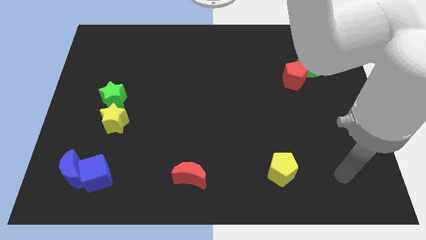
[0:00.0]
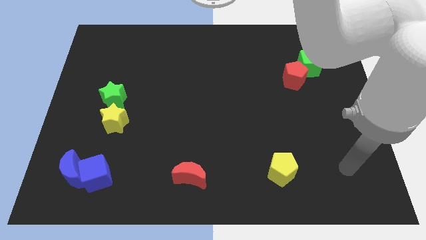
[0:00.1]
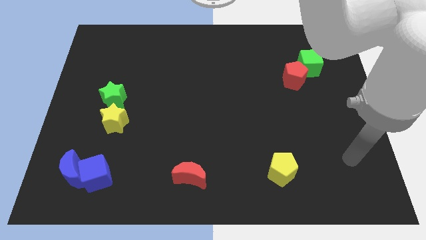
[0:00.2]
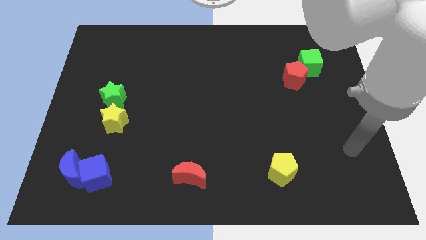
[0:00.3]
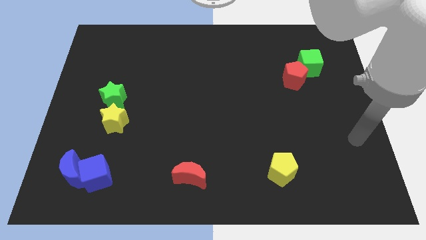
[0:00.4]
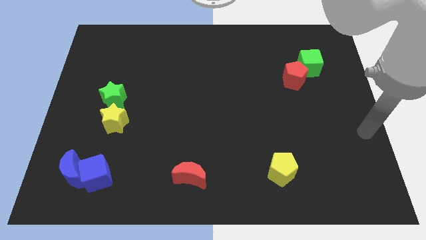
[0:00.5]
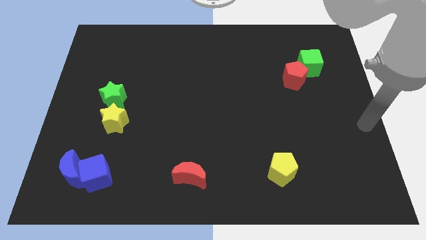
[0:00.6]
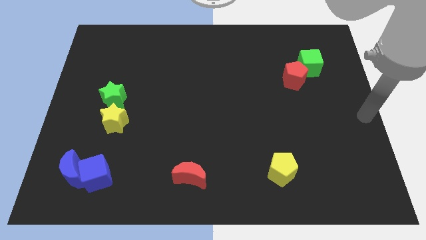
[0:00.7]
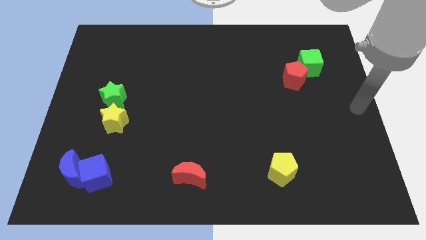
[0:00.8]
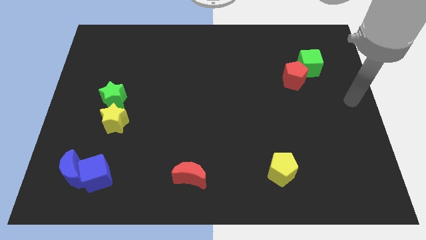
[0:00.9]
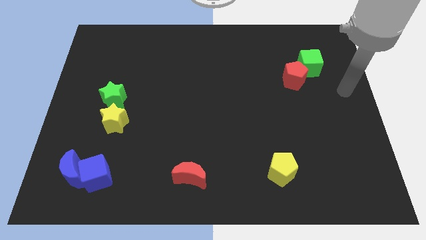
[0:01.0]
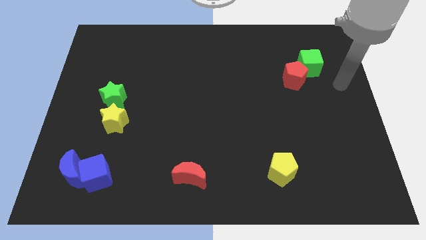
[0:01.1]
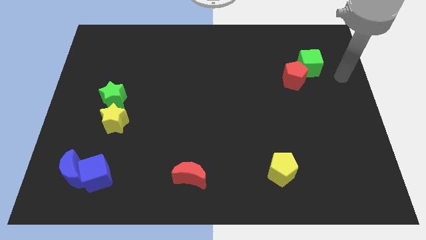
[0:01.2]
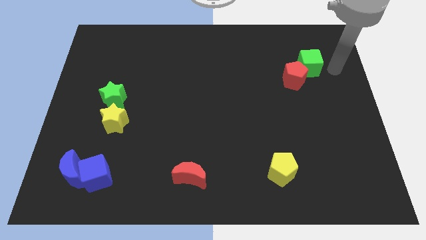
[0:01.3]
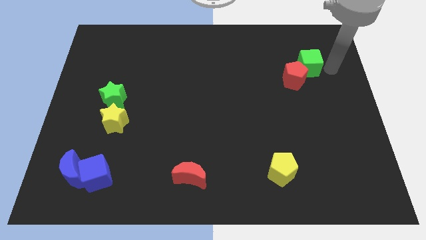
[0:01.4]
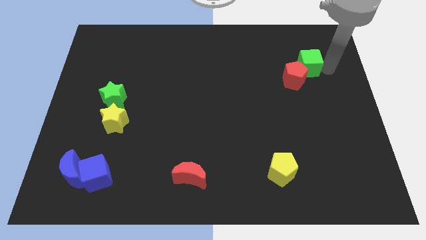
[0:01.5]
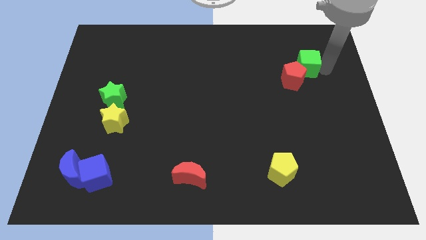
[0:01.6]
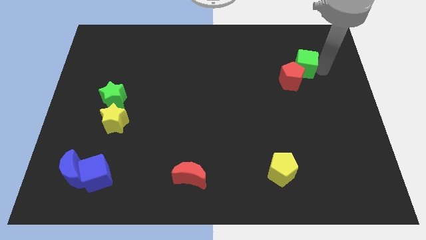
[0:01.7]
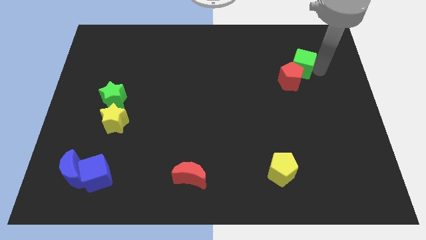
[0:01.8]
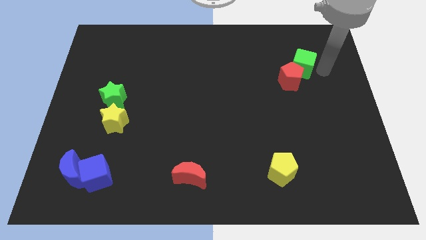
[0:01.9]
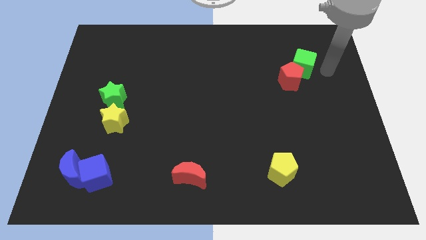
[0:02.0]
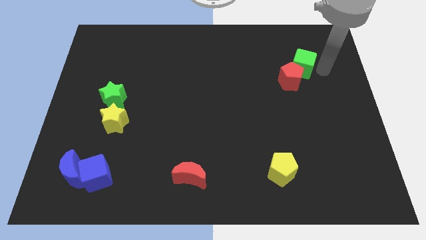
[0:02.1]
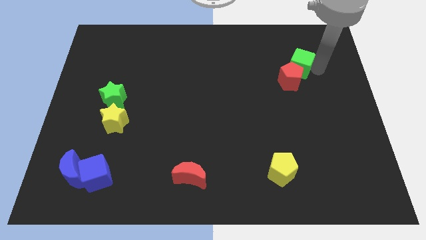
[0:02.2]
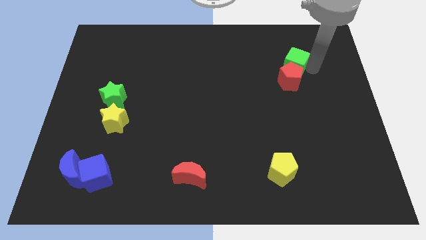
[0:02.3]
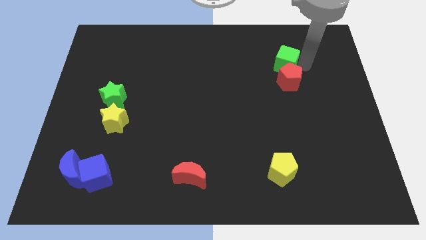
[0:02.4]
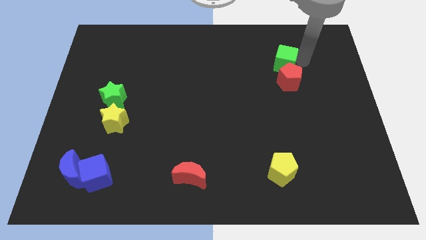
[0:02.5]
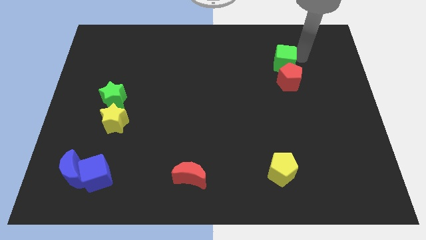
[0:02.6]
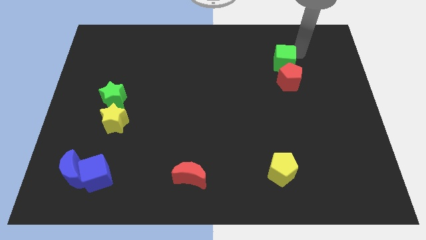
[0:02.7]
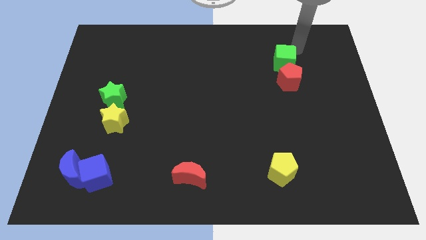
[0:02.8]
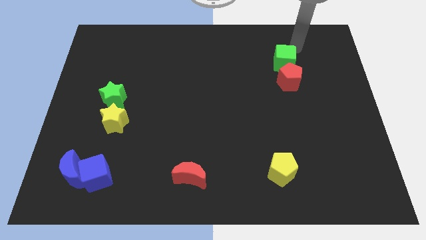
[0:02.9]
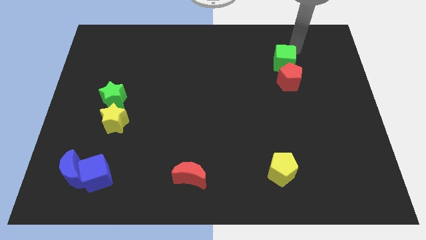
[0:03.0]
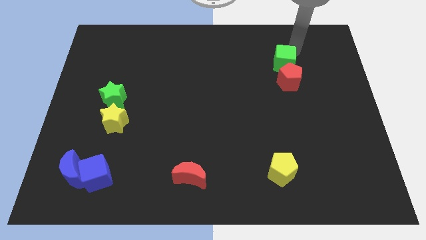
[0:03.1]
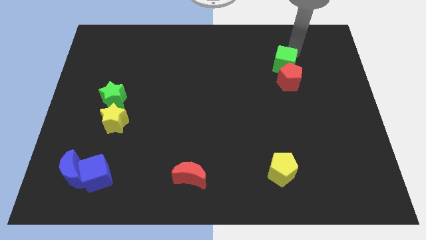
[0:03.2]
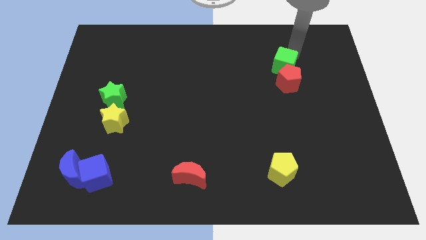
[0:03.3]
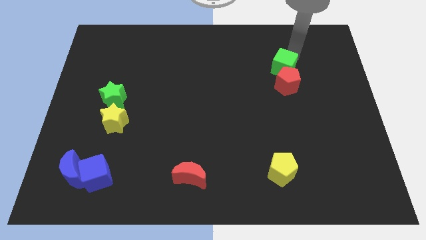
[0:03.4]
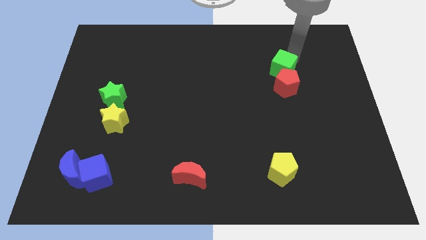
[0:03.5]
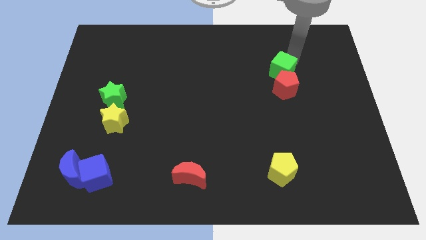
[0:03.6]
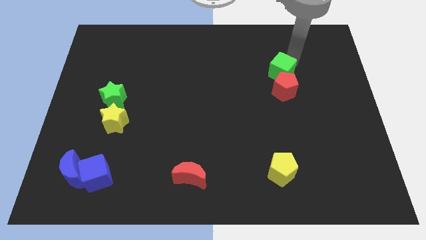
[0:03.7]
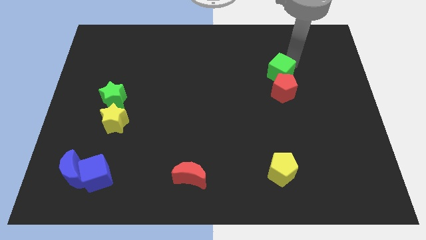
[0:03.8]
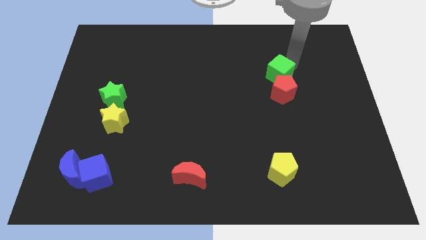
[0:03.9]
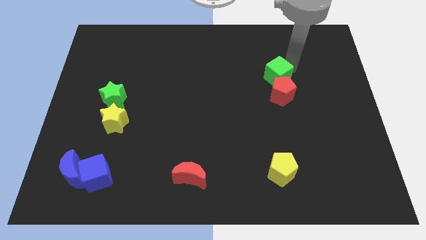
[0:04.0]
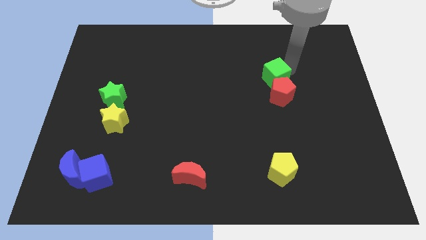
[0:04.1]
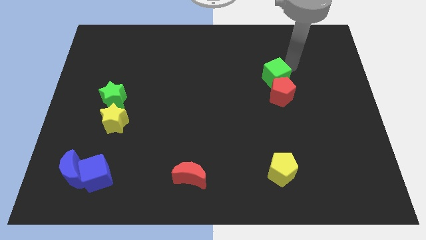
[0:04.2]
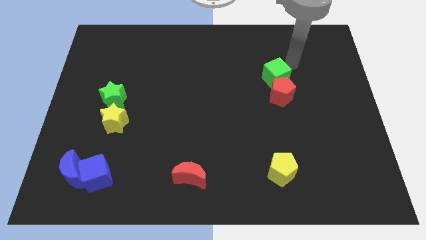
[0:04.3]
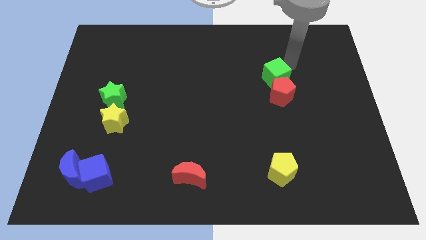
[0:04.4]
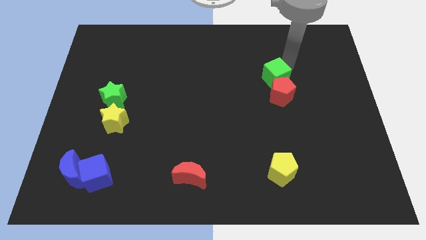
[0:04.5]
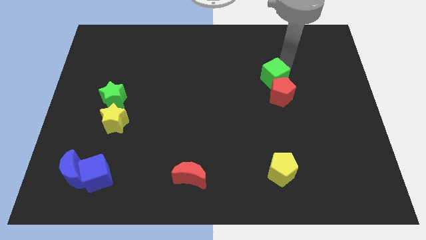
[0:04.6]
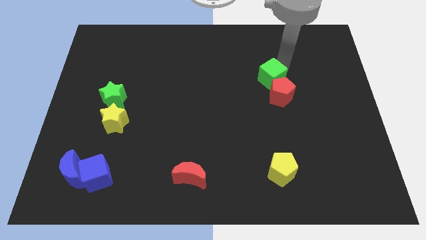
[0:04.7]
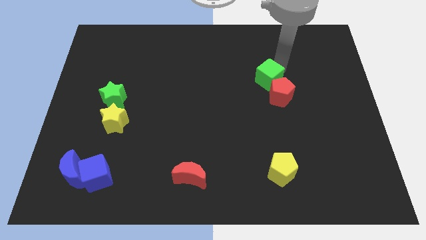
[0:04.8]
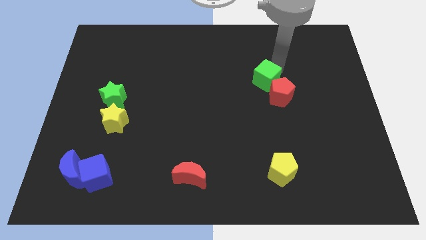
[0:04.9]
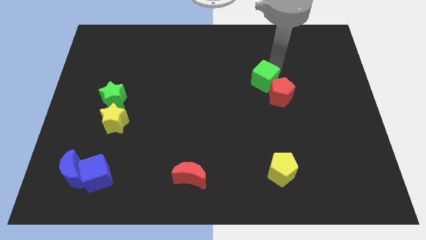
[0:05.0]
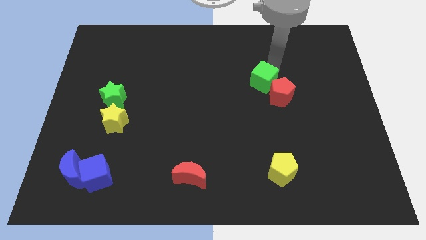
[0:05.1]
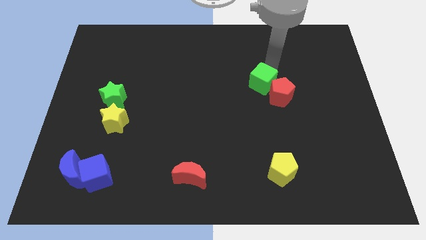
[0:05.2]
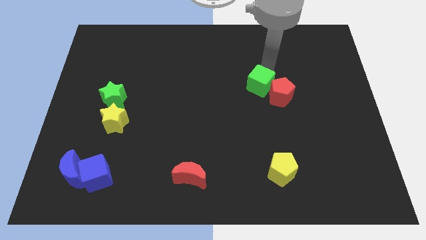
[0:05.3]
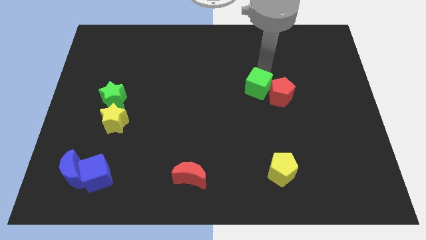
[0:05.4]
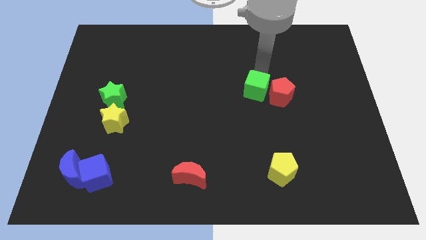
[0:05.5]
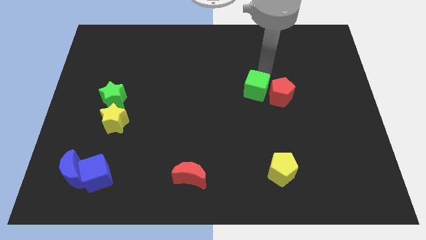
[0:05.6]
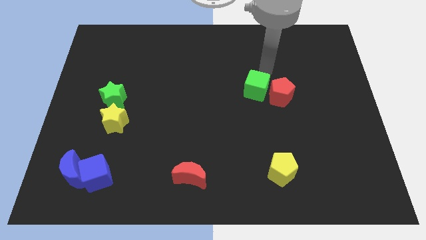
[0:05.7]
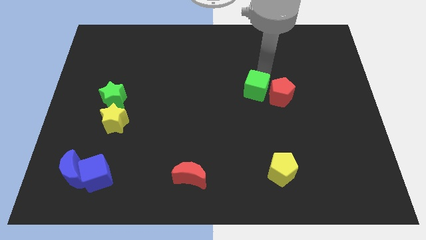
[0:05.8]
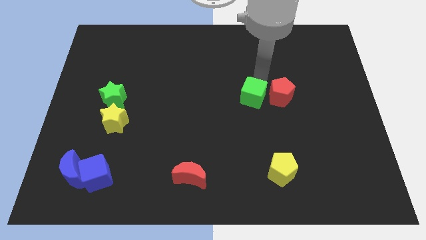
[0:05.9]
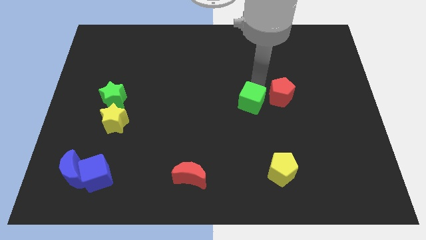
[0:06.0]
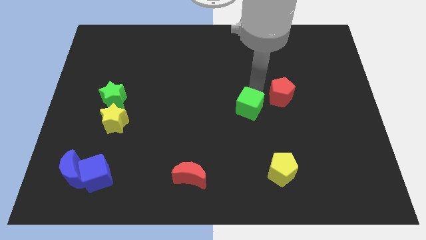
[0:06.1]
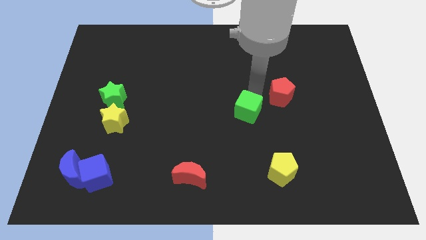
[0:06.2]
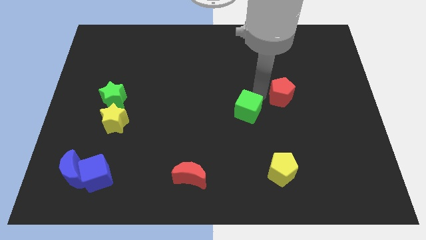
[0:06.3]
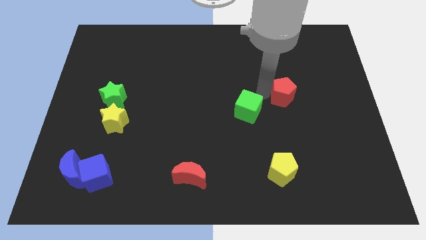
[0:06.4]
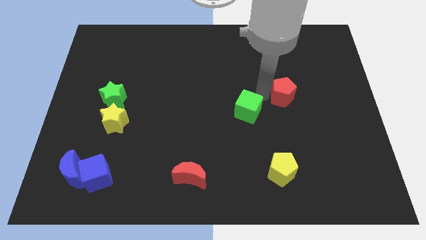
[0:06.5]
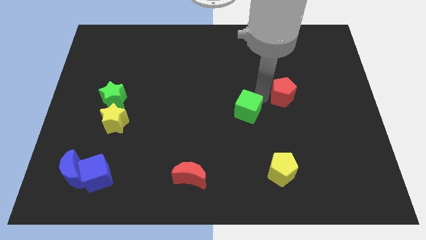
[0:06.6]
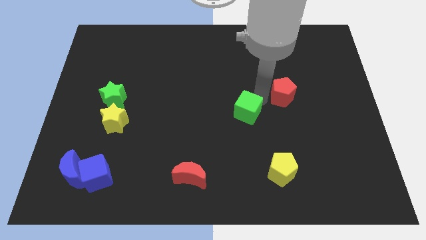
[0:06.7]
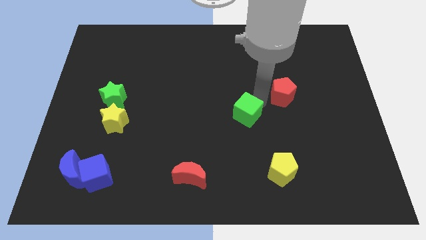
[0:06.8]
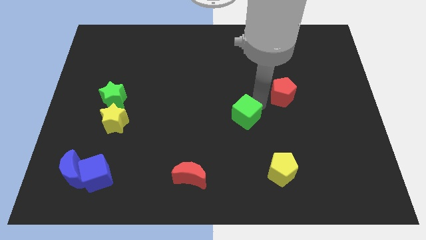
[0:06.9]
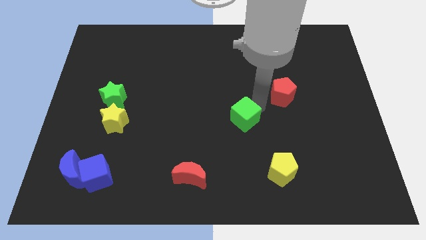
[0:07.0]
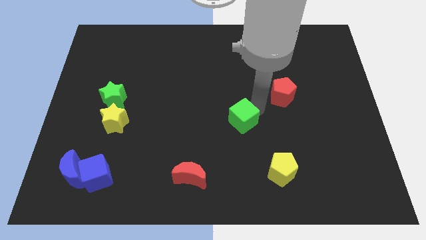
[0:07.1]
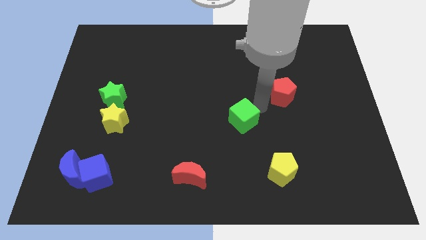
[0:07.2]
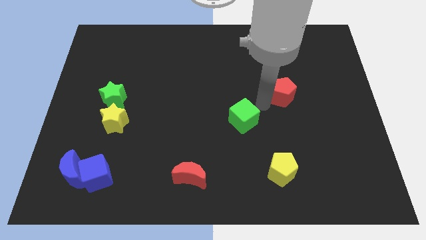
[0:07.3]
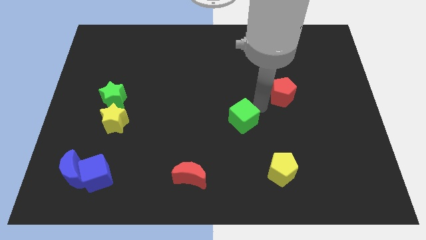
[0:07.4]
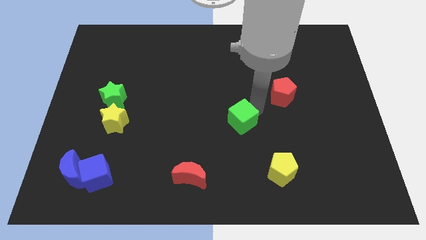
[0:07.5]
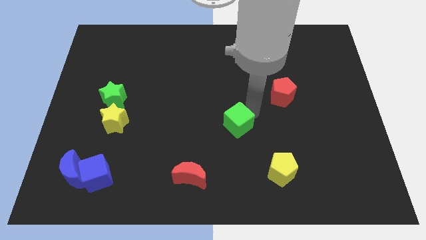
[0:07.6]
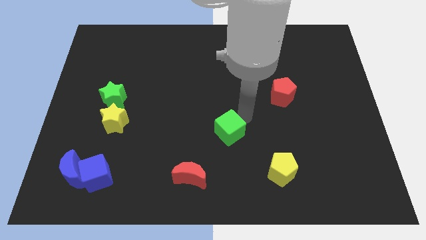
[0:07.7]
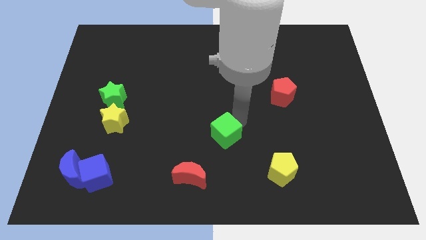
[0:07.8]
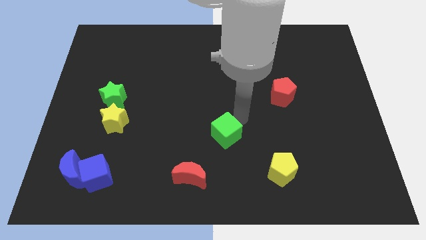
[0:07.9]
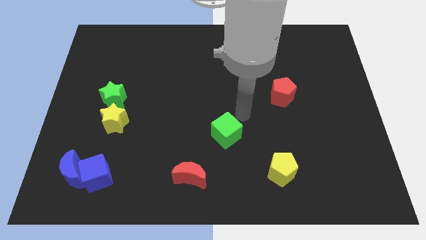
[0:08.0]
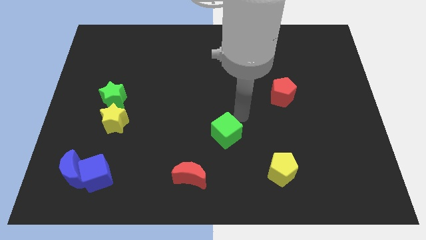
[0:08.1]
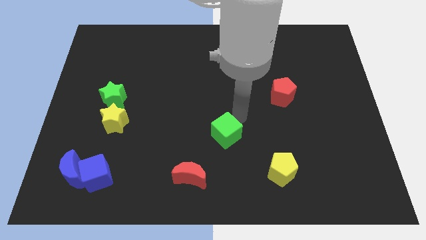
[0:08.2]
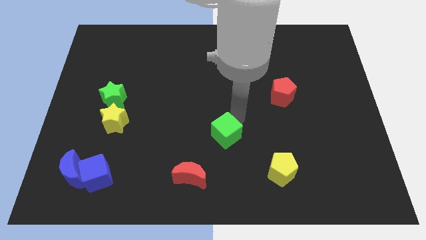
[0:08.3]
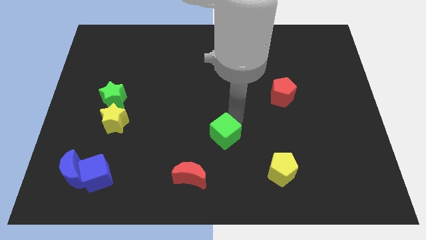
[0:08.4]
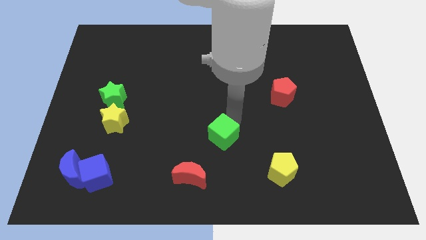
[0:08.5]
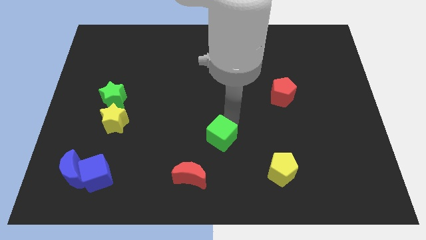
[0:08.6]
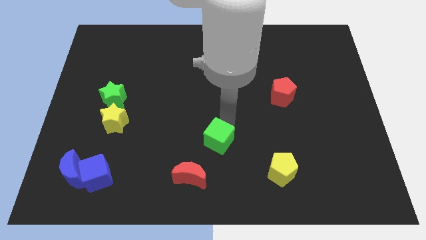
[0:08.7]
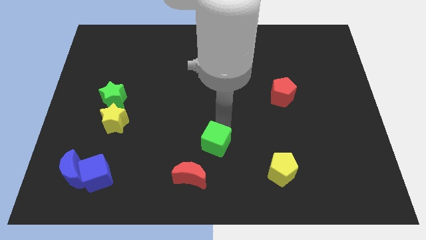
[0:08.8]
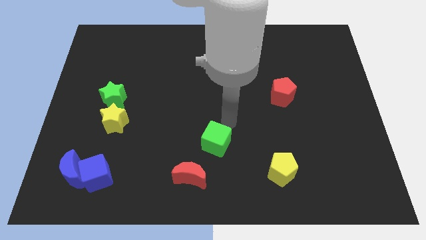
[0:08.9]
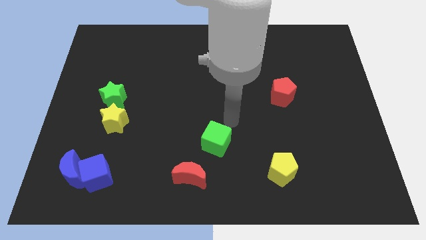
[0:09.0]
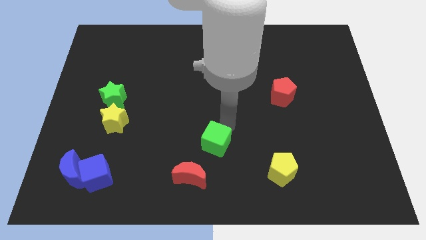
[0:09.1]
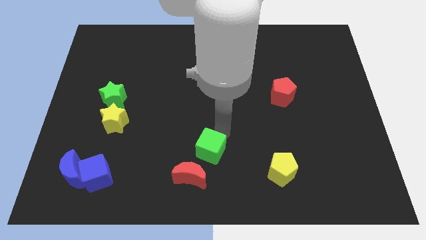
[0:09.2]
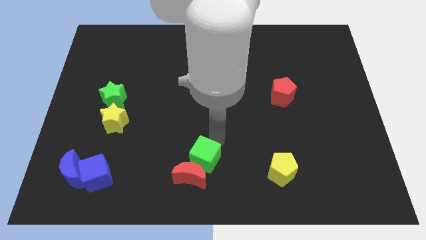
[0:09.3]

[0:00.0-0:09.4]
slide the green cube towards the red moon
